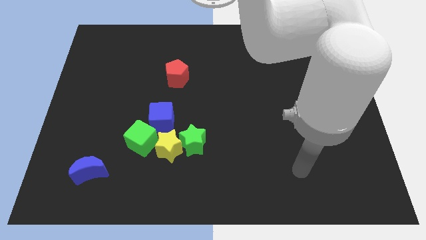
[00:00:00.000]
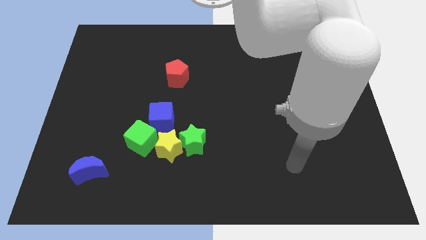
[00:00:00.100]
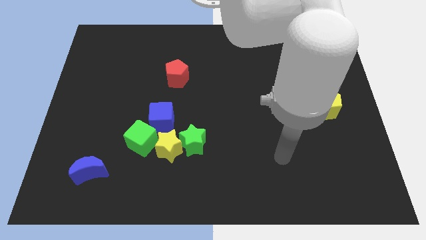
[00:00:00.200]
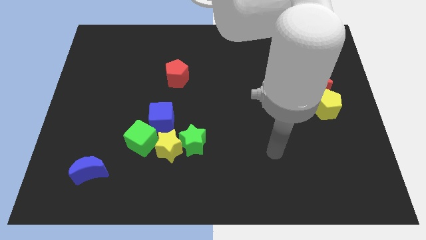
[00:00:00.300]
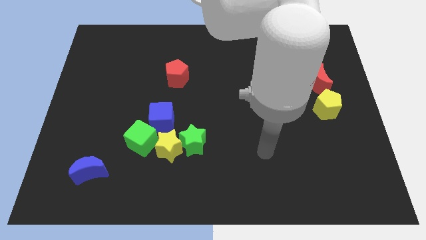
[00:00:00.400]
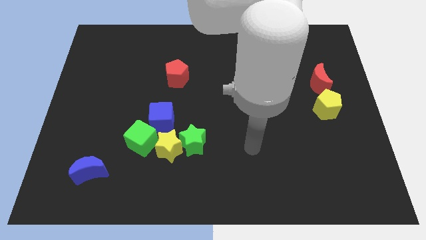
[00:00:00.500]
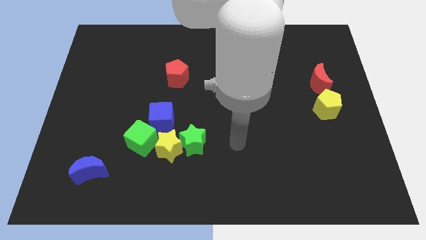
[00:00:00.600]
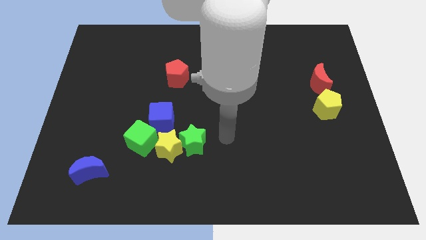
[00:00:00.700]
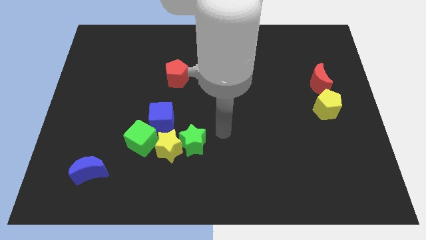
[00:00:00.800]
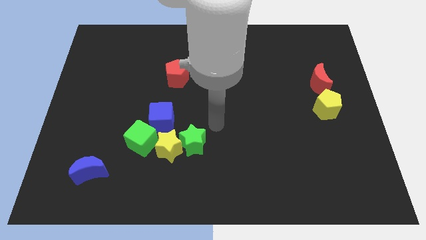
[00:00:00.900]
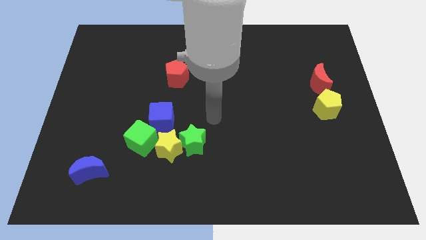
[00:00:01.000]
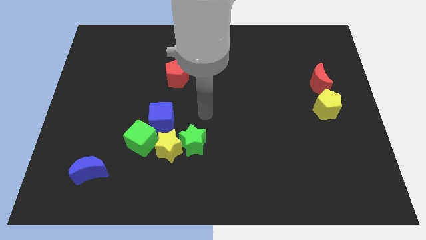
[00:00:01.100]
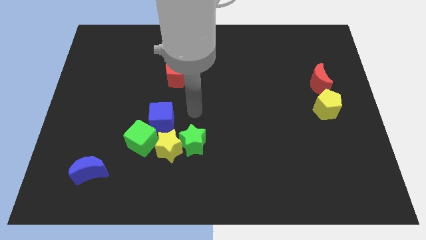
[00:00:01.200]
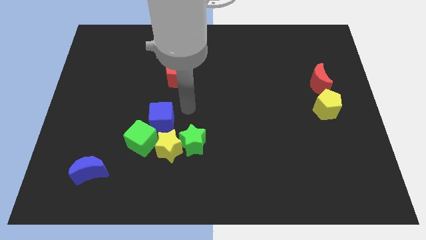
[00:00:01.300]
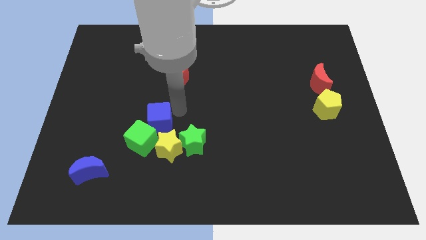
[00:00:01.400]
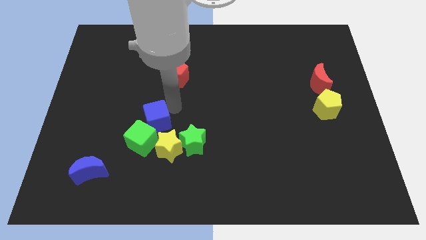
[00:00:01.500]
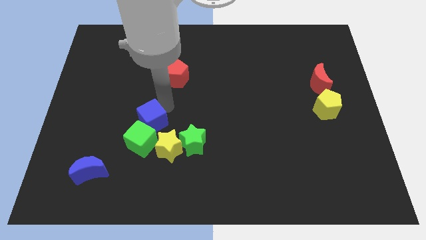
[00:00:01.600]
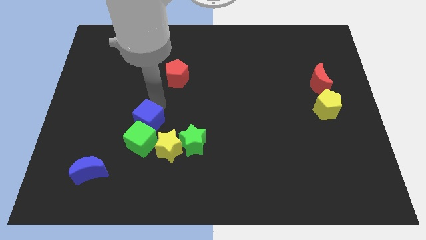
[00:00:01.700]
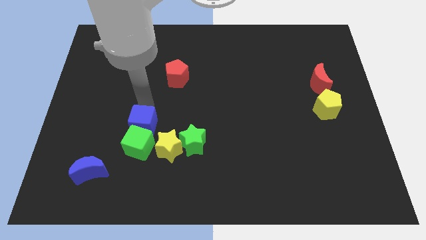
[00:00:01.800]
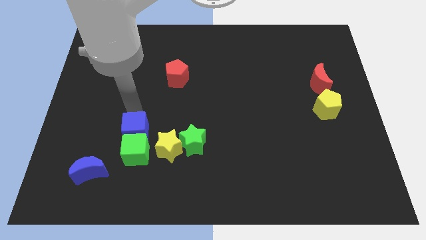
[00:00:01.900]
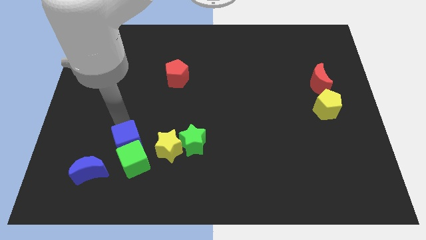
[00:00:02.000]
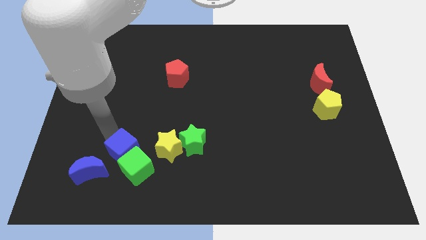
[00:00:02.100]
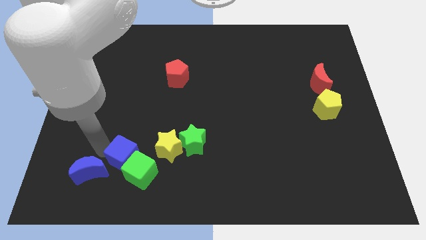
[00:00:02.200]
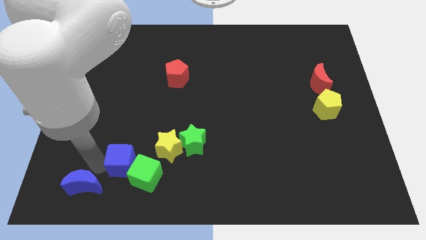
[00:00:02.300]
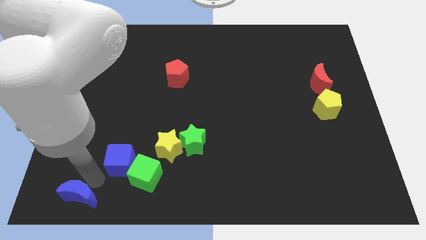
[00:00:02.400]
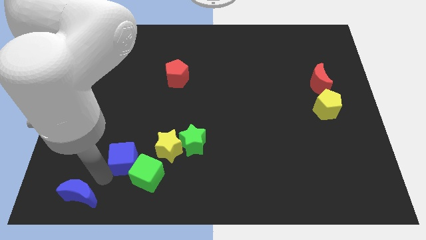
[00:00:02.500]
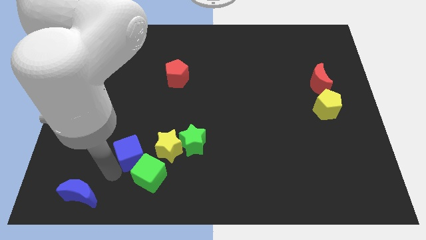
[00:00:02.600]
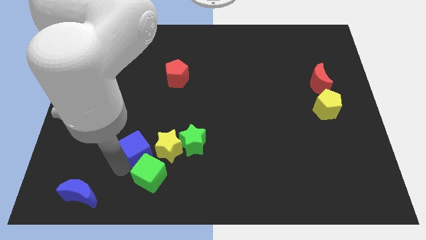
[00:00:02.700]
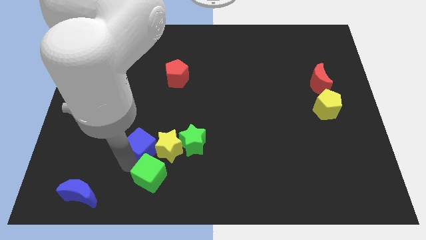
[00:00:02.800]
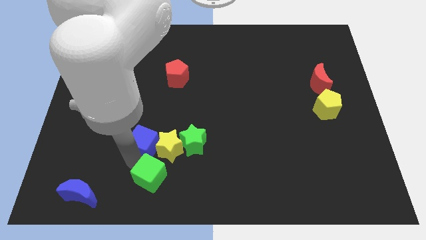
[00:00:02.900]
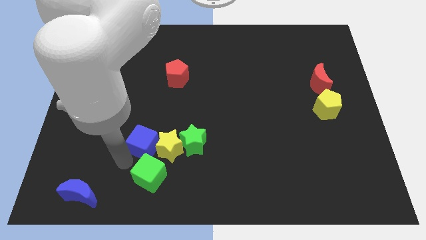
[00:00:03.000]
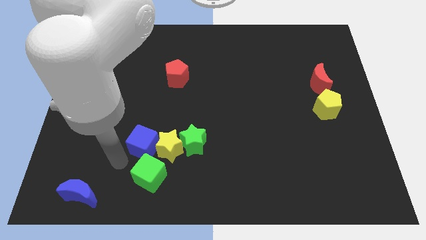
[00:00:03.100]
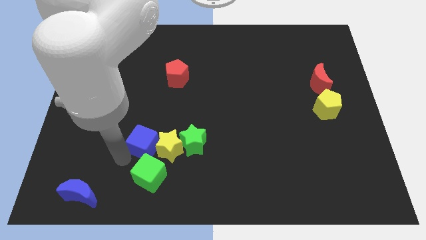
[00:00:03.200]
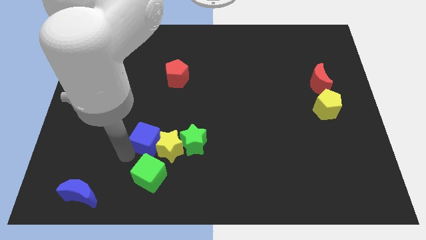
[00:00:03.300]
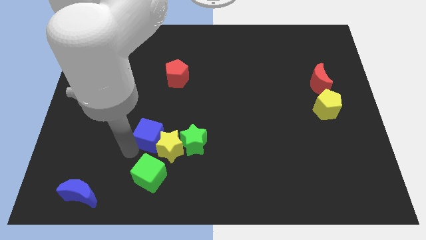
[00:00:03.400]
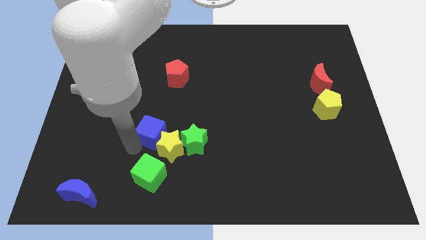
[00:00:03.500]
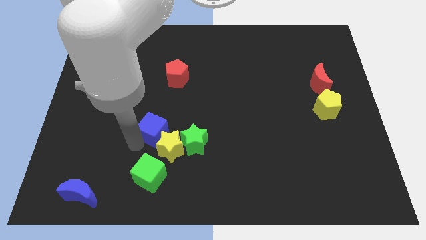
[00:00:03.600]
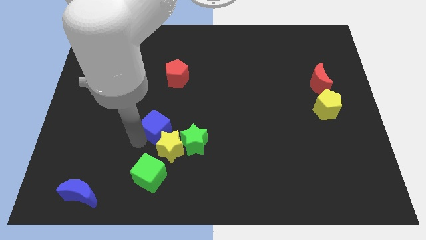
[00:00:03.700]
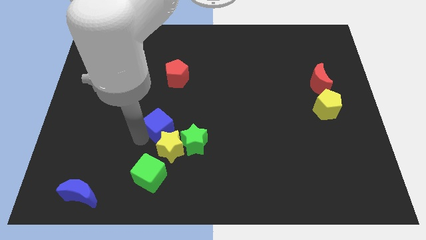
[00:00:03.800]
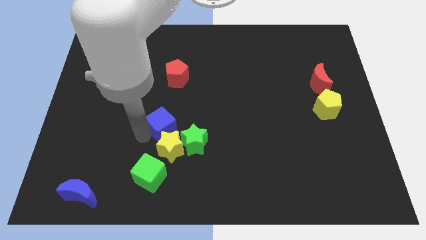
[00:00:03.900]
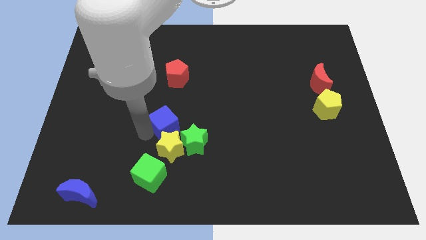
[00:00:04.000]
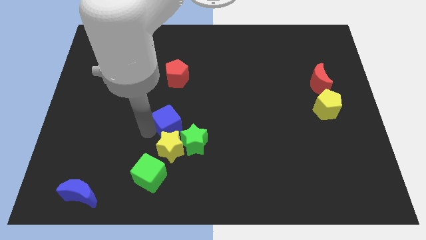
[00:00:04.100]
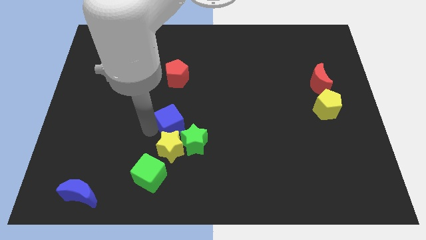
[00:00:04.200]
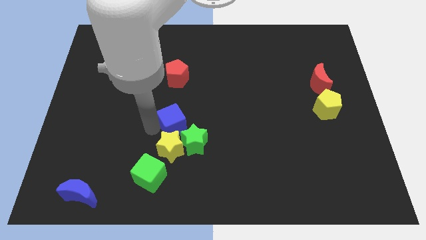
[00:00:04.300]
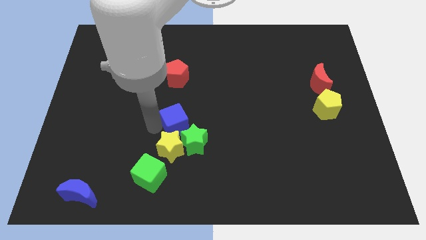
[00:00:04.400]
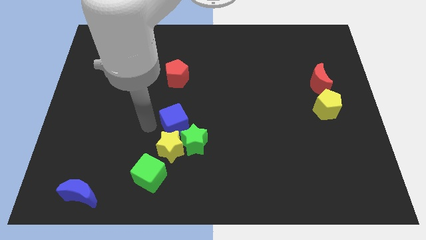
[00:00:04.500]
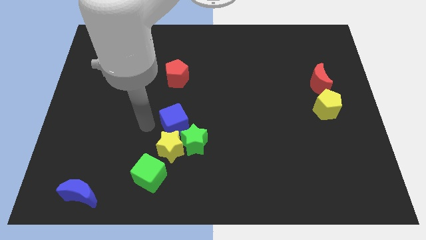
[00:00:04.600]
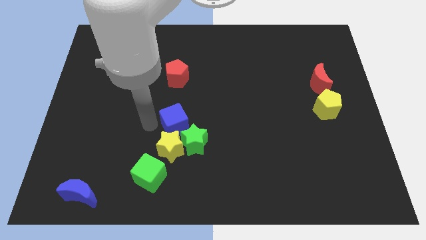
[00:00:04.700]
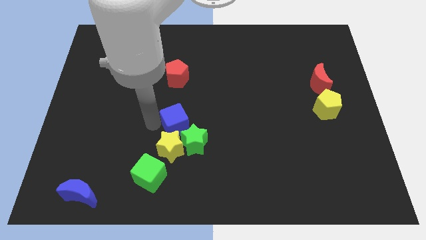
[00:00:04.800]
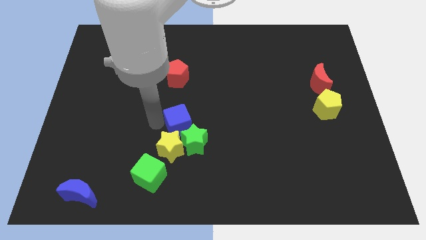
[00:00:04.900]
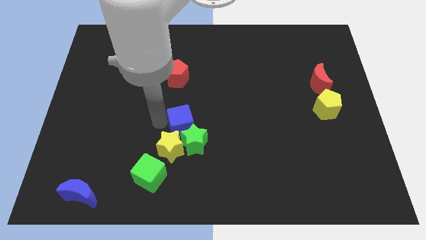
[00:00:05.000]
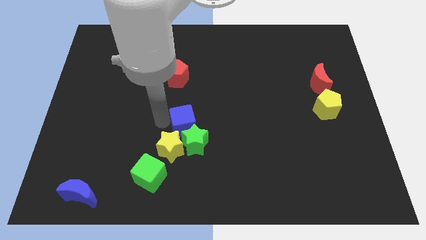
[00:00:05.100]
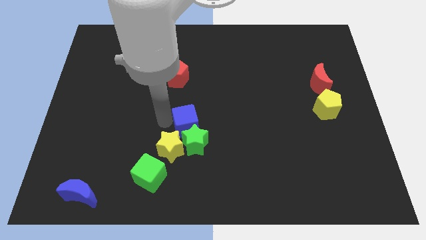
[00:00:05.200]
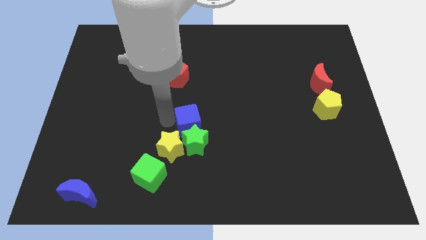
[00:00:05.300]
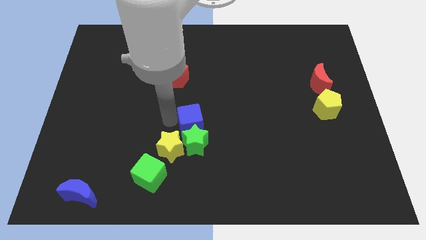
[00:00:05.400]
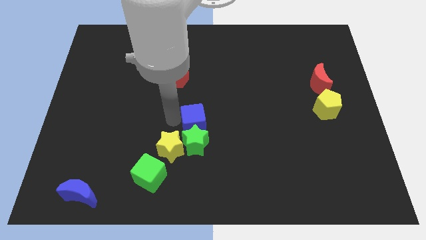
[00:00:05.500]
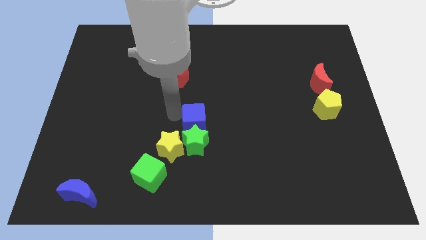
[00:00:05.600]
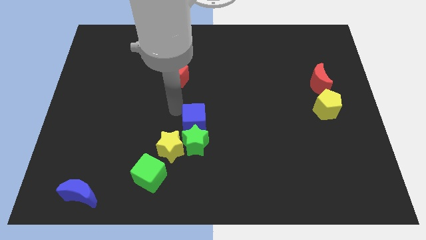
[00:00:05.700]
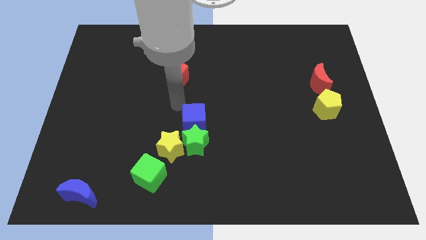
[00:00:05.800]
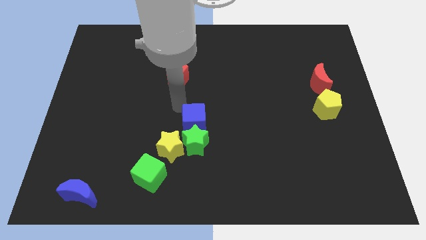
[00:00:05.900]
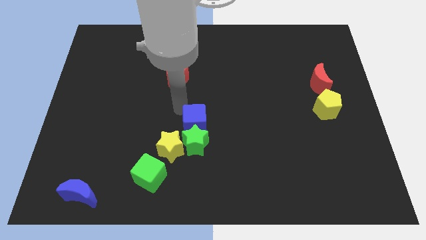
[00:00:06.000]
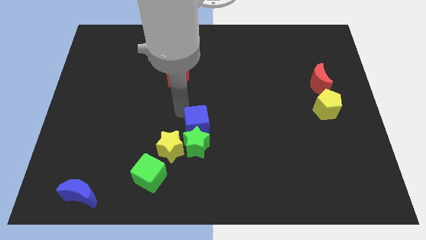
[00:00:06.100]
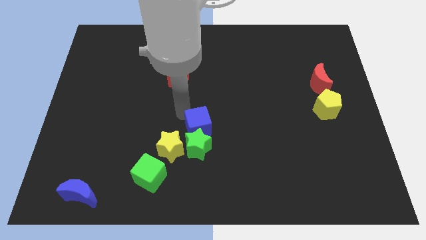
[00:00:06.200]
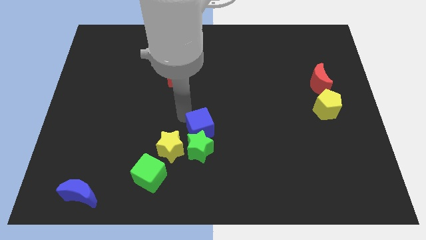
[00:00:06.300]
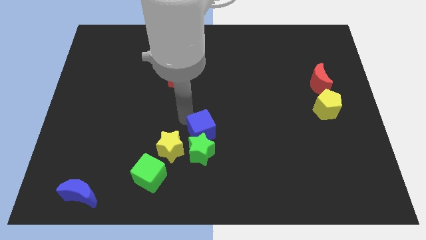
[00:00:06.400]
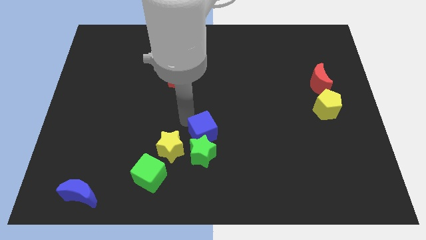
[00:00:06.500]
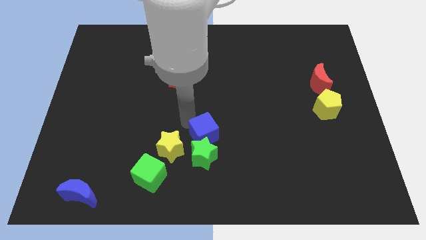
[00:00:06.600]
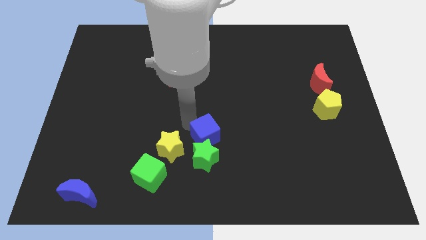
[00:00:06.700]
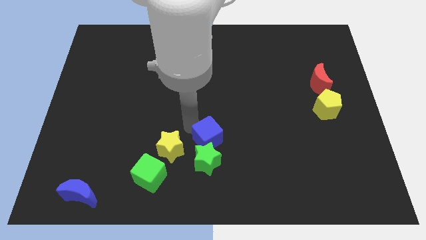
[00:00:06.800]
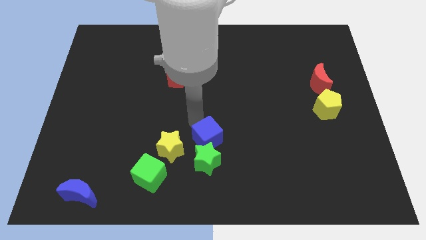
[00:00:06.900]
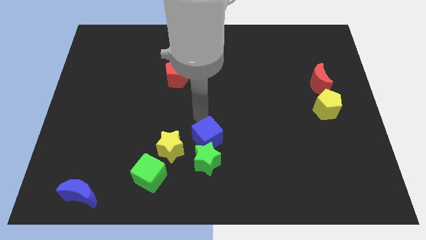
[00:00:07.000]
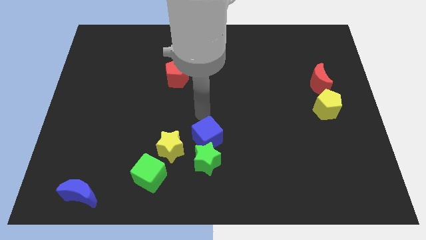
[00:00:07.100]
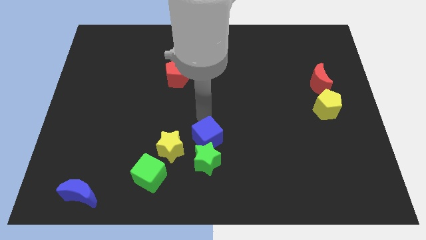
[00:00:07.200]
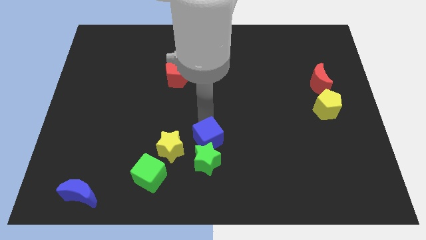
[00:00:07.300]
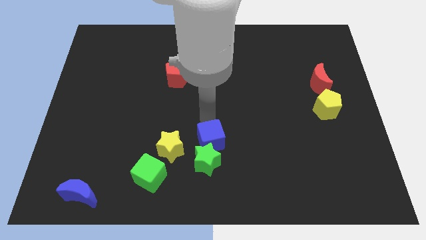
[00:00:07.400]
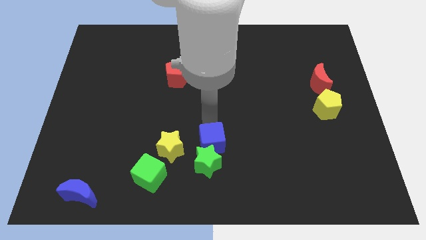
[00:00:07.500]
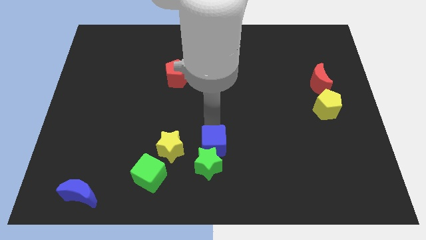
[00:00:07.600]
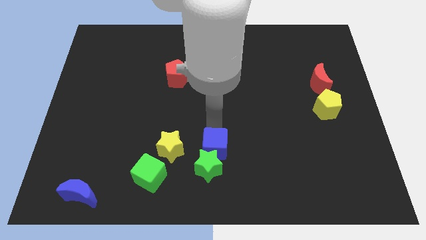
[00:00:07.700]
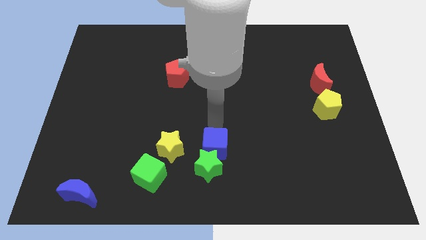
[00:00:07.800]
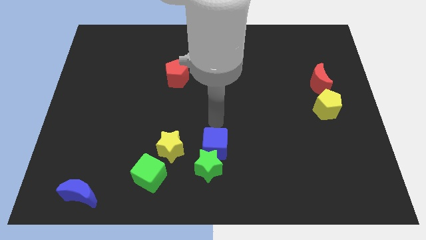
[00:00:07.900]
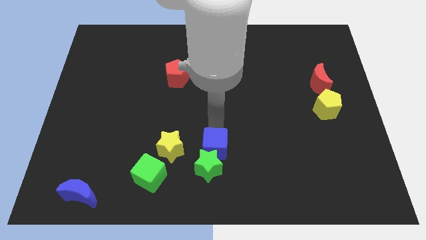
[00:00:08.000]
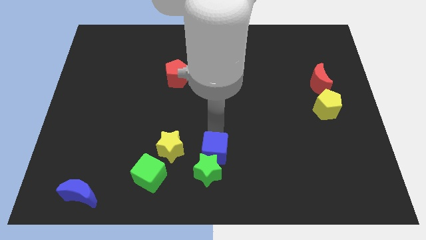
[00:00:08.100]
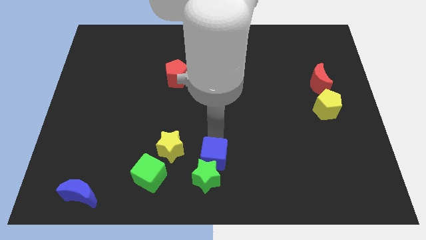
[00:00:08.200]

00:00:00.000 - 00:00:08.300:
move the blue cube to the bottom side
